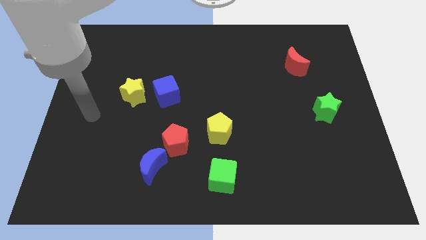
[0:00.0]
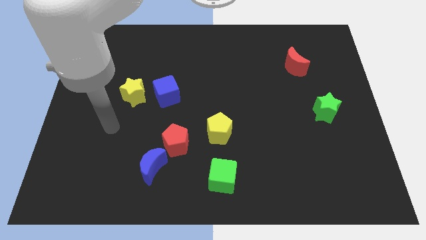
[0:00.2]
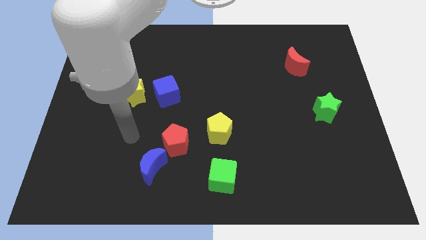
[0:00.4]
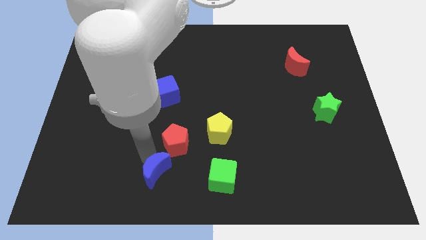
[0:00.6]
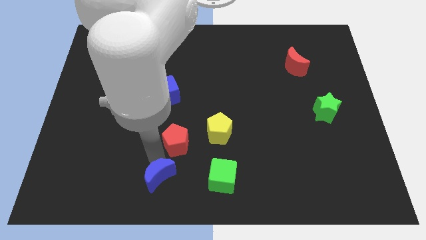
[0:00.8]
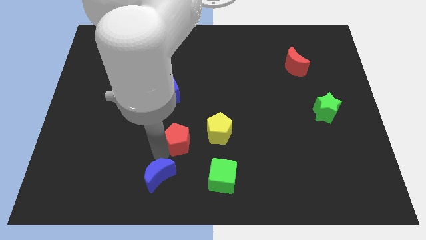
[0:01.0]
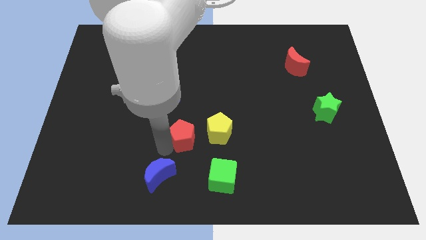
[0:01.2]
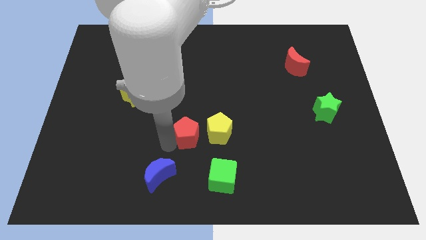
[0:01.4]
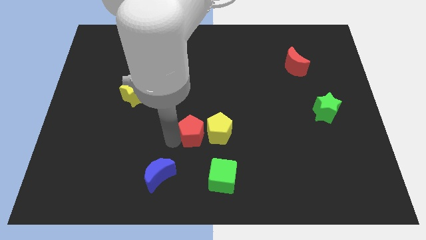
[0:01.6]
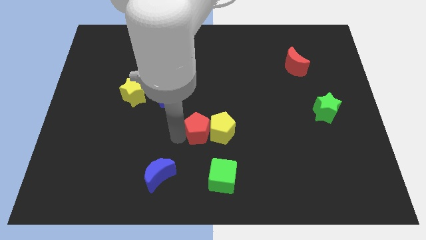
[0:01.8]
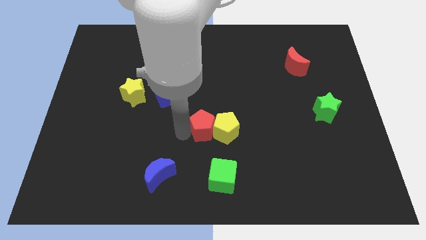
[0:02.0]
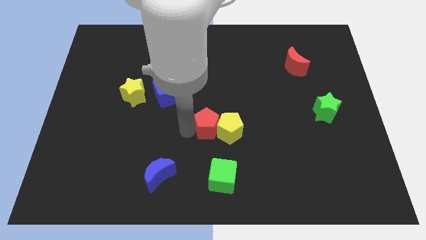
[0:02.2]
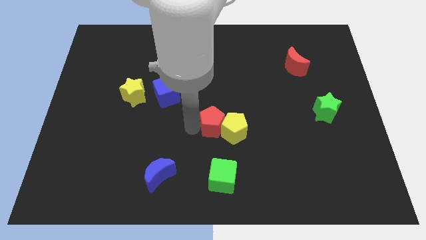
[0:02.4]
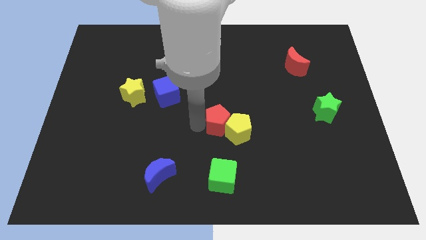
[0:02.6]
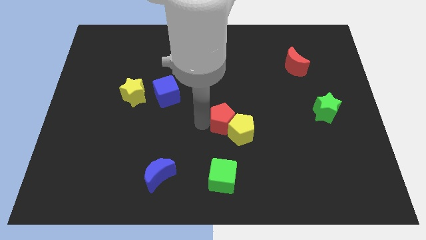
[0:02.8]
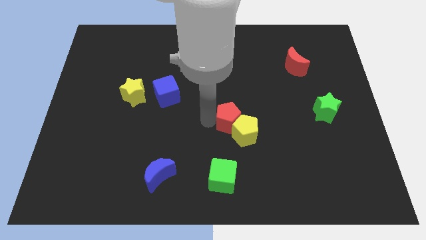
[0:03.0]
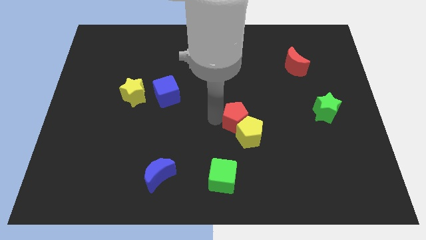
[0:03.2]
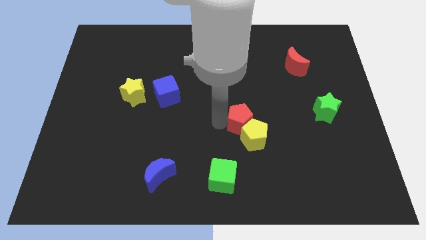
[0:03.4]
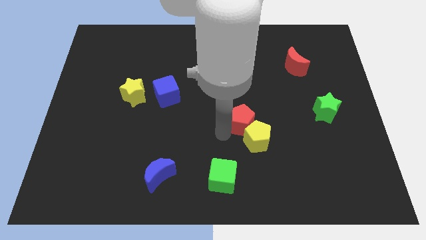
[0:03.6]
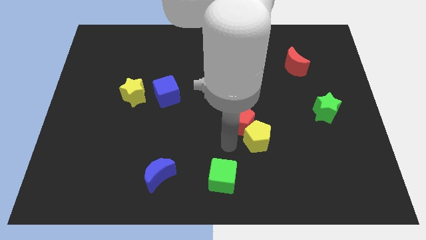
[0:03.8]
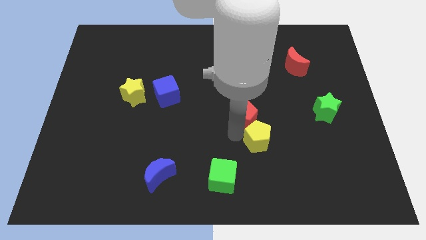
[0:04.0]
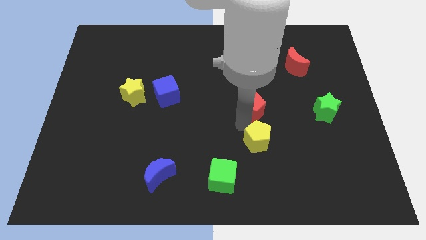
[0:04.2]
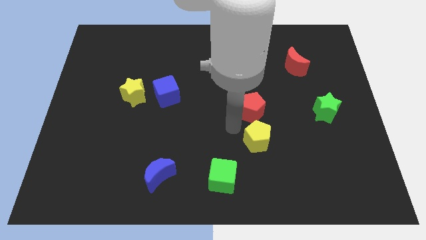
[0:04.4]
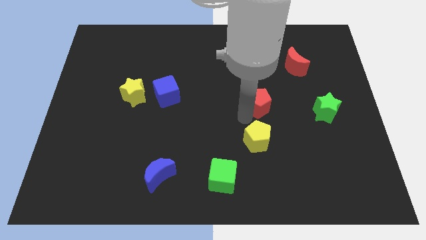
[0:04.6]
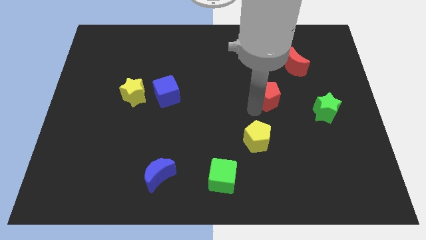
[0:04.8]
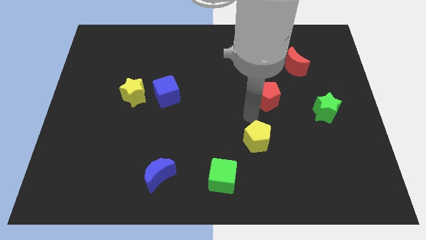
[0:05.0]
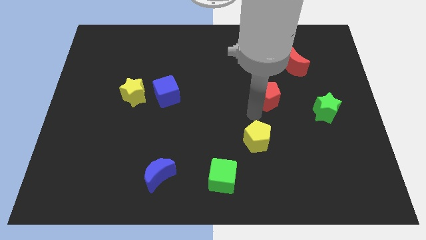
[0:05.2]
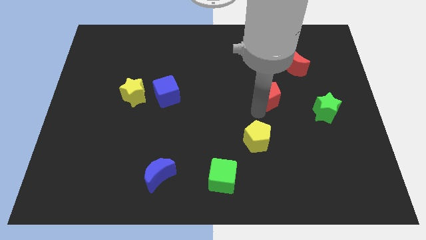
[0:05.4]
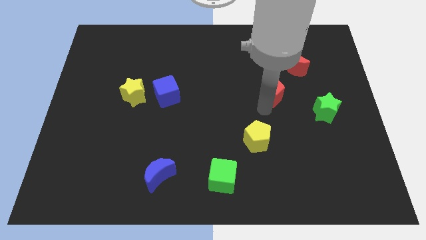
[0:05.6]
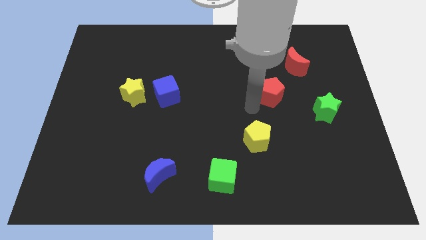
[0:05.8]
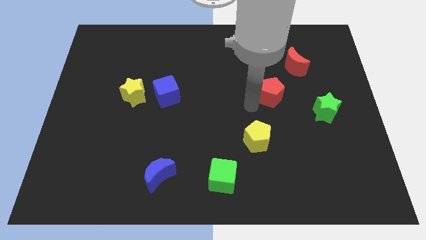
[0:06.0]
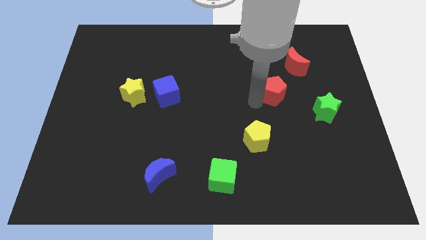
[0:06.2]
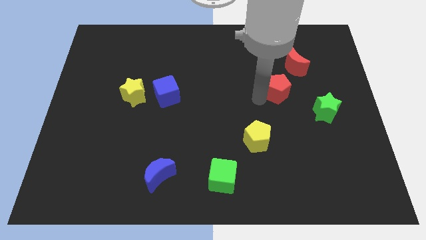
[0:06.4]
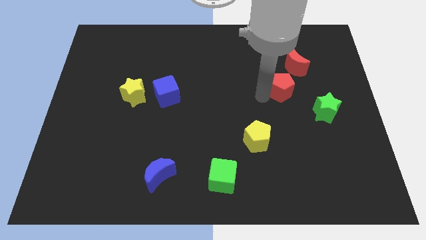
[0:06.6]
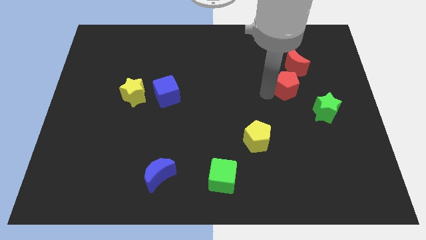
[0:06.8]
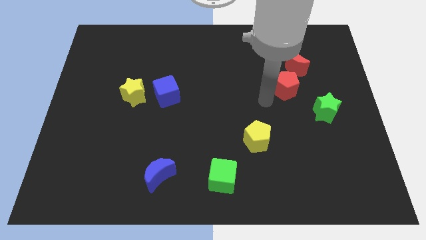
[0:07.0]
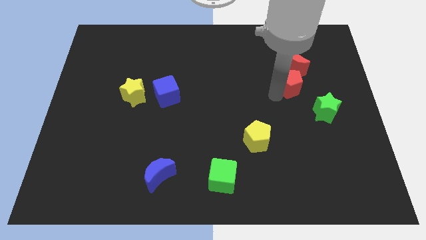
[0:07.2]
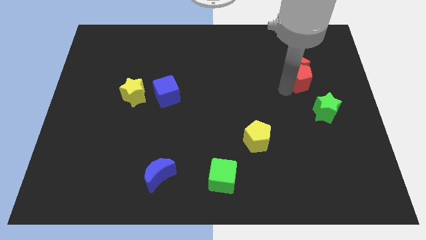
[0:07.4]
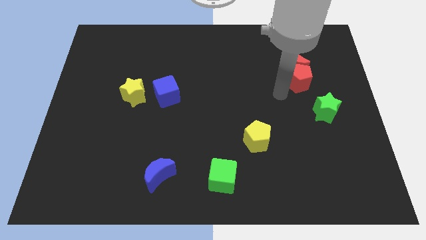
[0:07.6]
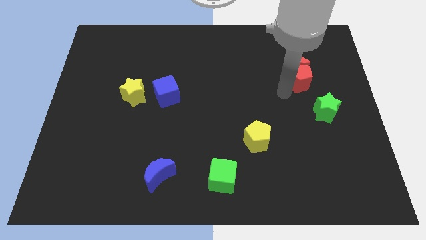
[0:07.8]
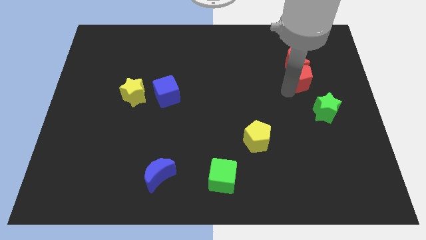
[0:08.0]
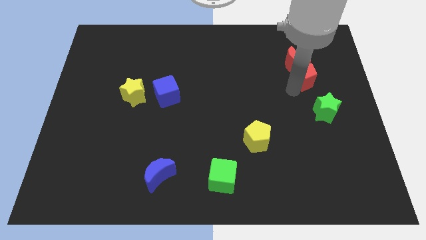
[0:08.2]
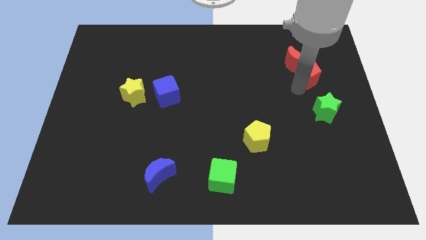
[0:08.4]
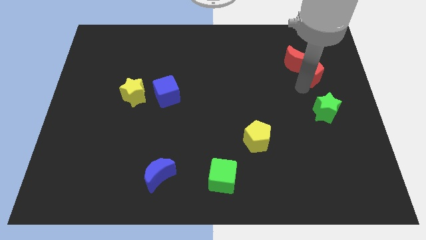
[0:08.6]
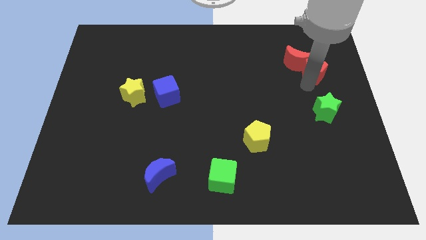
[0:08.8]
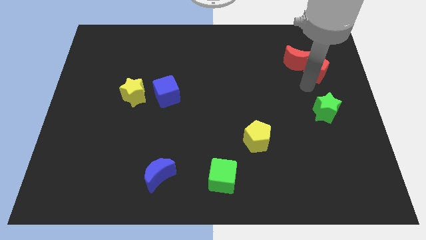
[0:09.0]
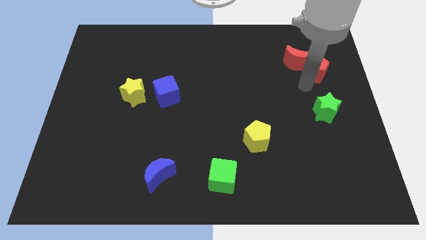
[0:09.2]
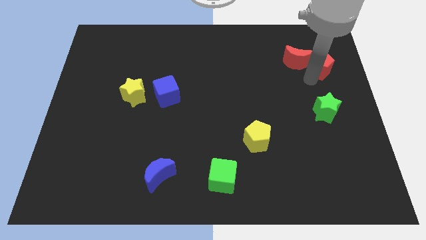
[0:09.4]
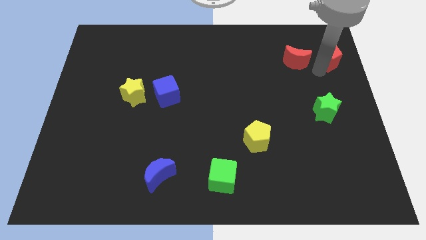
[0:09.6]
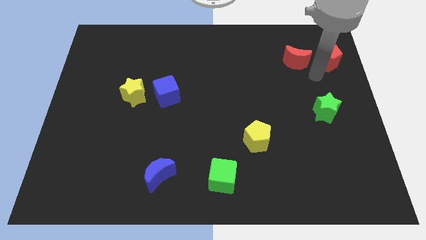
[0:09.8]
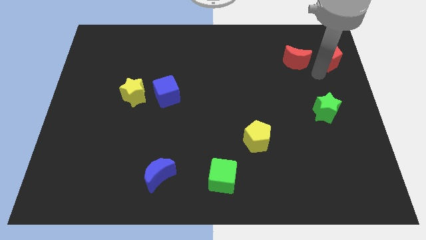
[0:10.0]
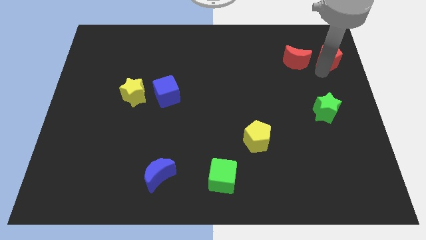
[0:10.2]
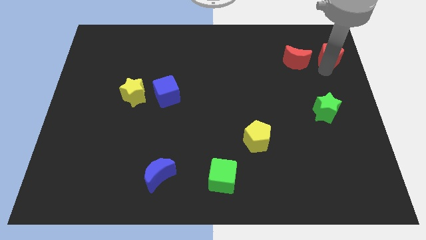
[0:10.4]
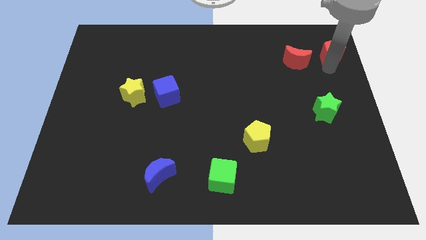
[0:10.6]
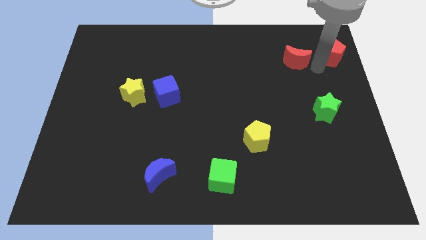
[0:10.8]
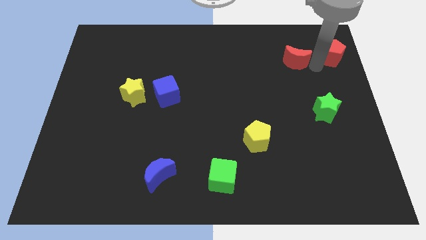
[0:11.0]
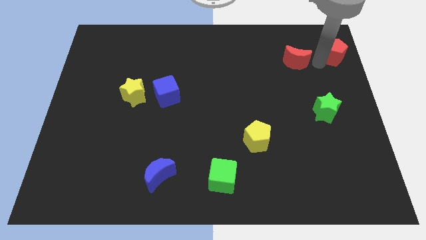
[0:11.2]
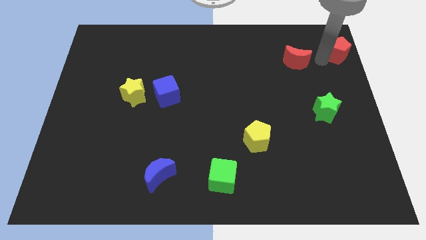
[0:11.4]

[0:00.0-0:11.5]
slide the red pentagon to the top right corner
